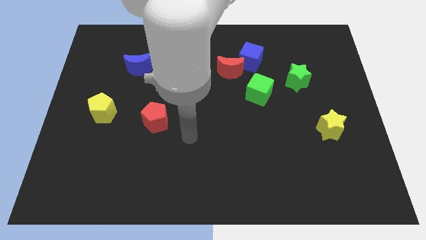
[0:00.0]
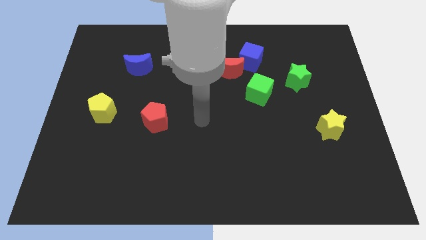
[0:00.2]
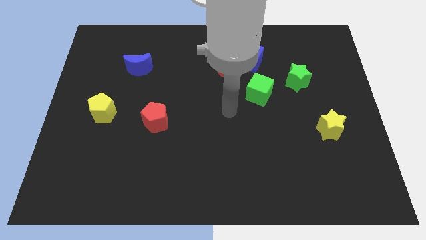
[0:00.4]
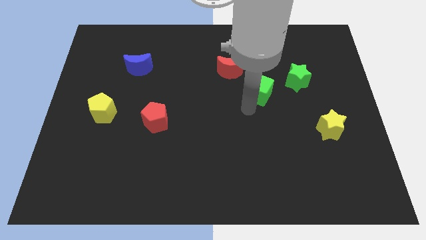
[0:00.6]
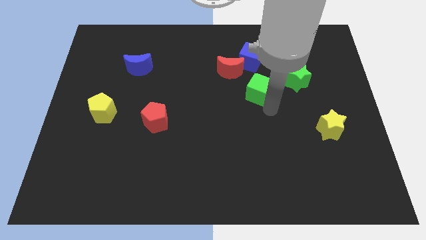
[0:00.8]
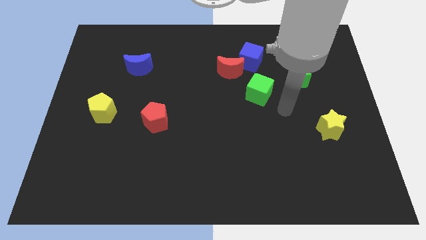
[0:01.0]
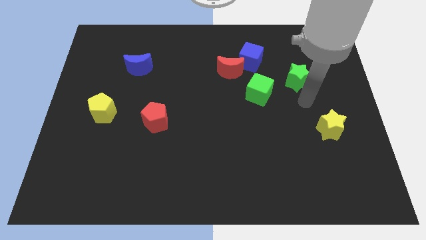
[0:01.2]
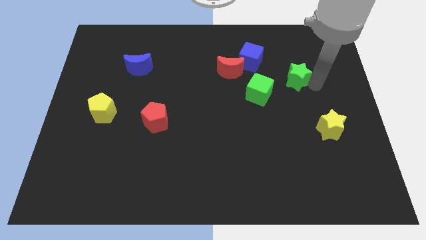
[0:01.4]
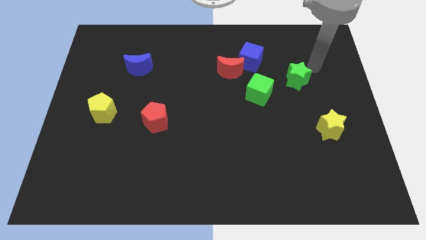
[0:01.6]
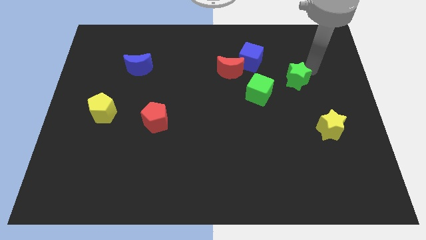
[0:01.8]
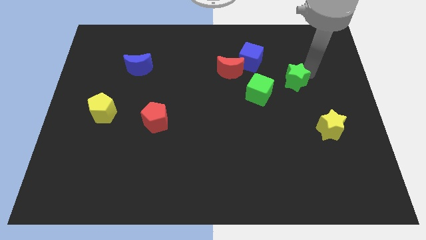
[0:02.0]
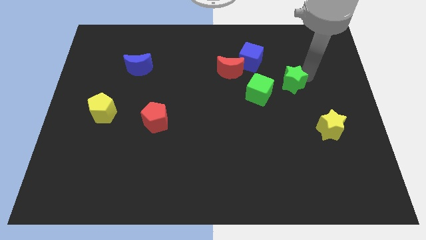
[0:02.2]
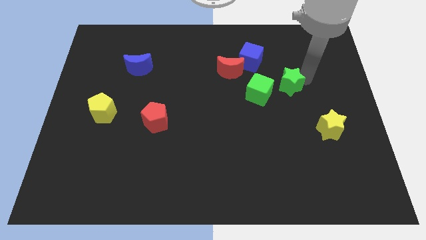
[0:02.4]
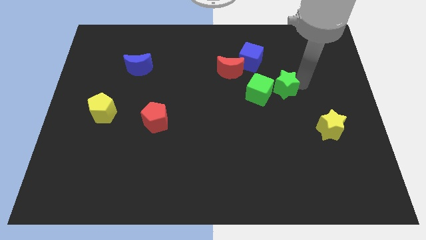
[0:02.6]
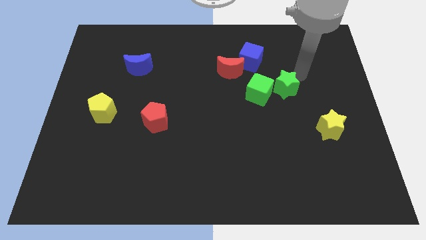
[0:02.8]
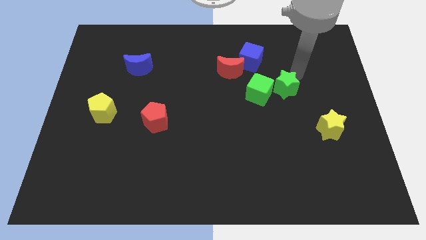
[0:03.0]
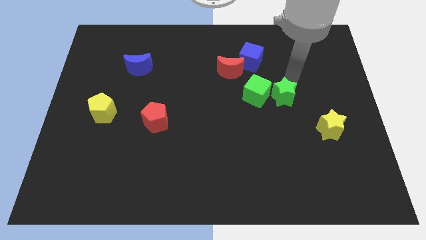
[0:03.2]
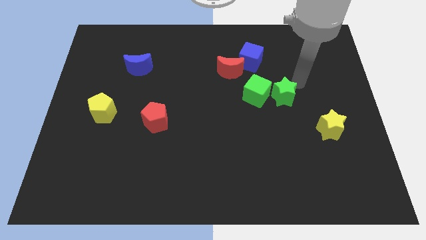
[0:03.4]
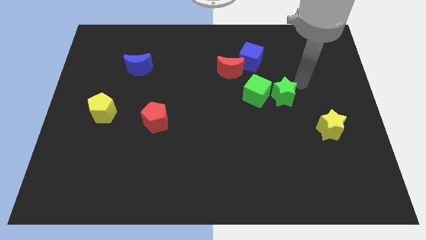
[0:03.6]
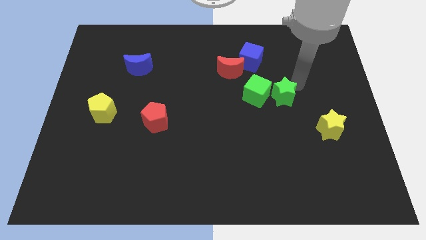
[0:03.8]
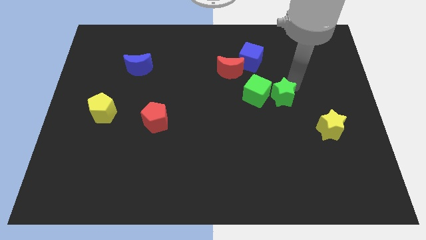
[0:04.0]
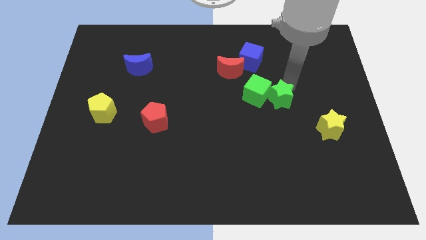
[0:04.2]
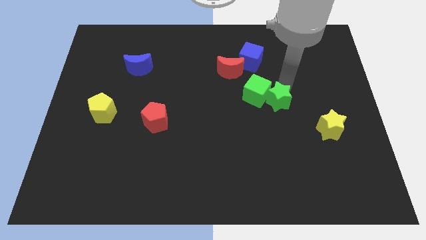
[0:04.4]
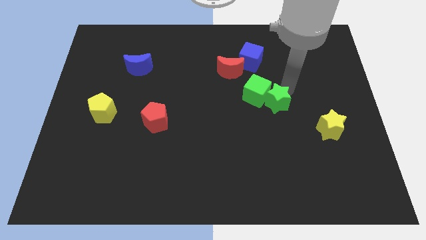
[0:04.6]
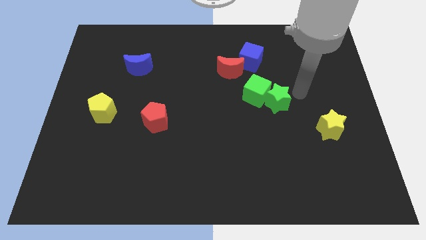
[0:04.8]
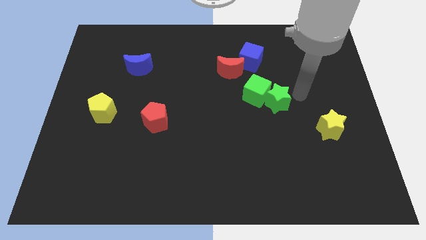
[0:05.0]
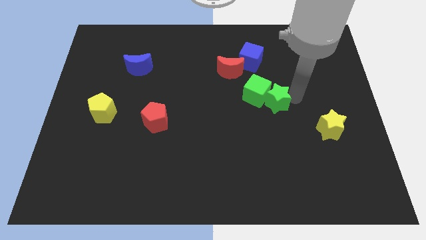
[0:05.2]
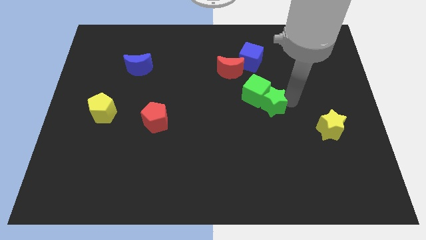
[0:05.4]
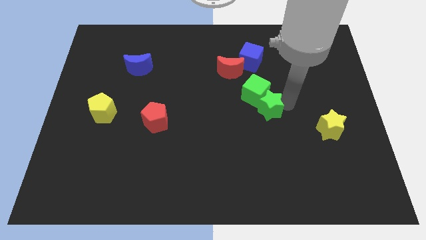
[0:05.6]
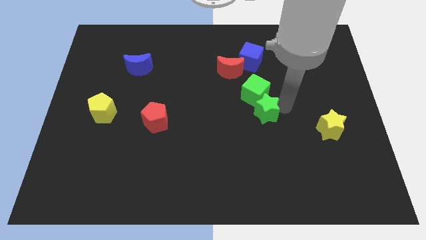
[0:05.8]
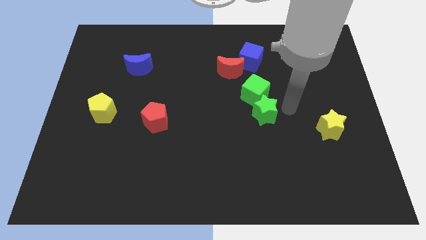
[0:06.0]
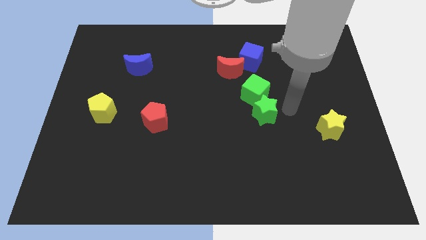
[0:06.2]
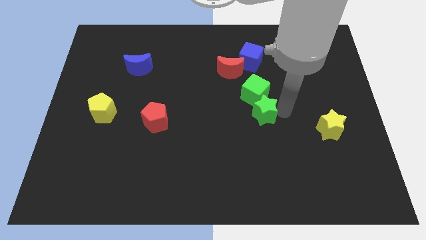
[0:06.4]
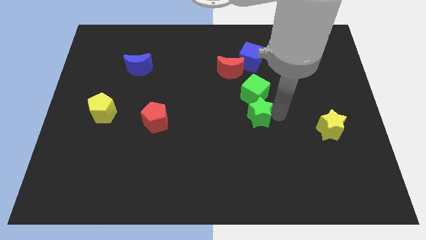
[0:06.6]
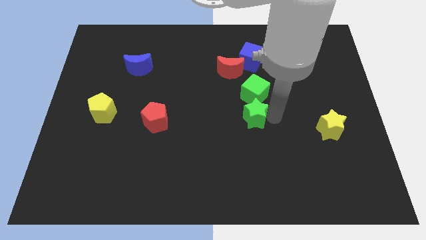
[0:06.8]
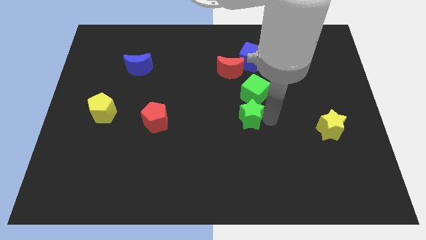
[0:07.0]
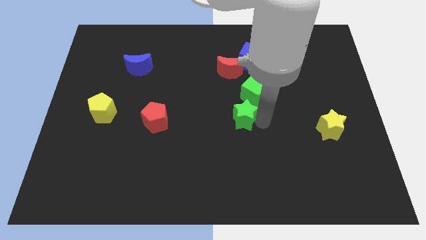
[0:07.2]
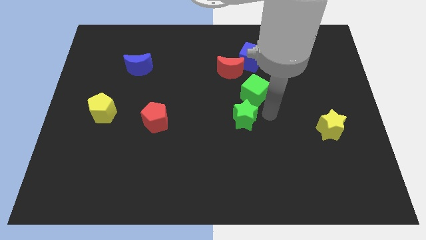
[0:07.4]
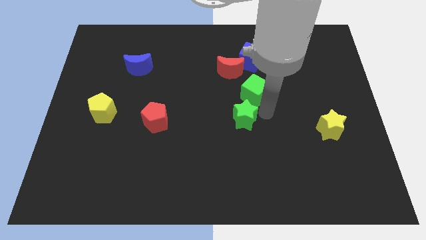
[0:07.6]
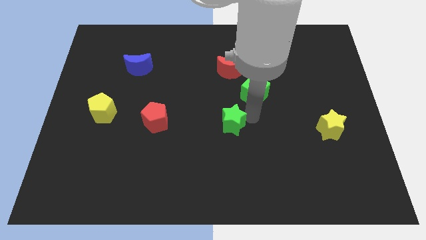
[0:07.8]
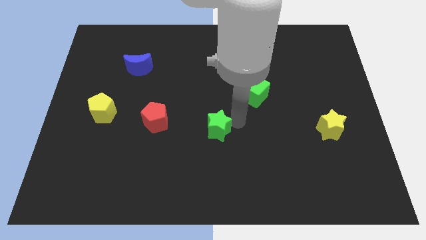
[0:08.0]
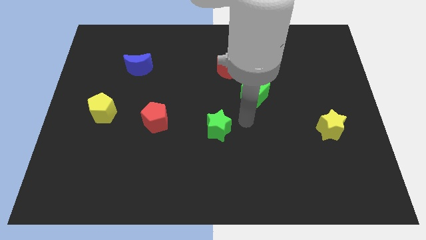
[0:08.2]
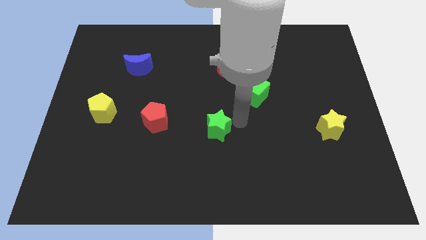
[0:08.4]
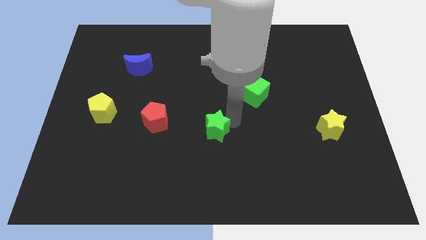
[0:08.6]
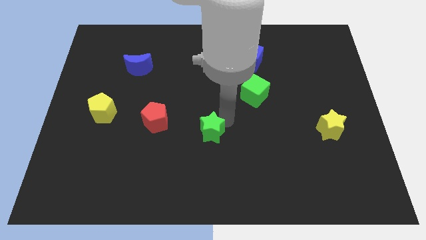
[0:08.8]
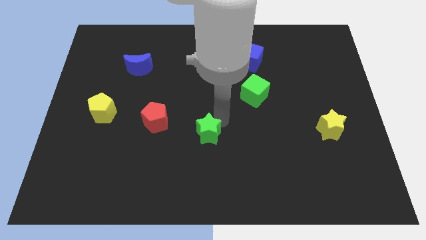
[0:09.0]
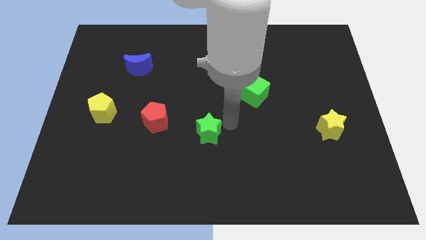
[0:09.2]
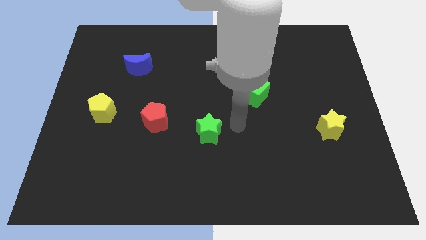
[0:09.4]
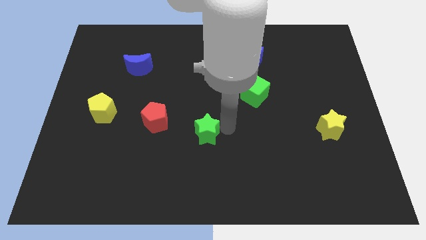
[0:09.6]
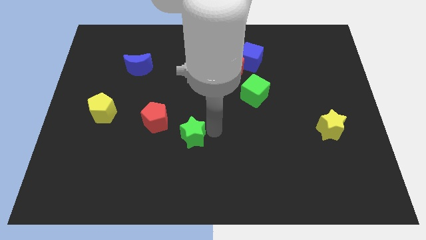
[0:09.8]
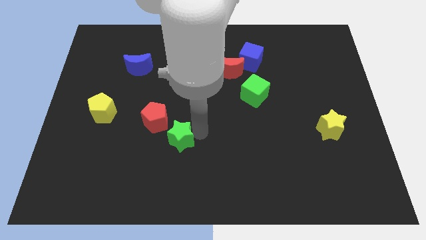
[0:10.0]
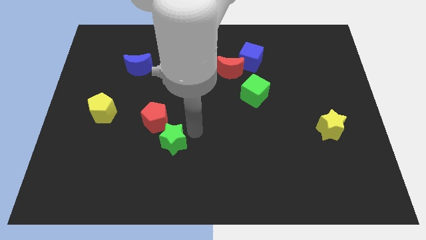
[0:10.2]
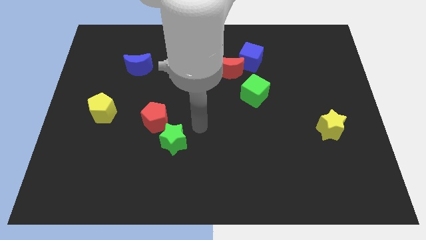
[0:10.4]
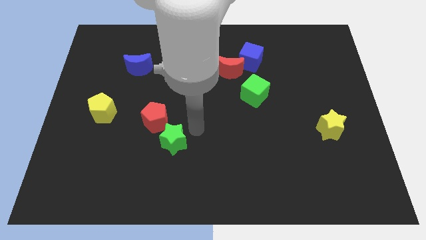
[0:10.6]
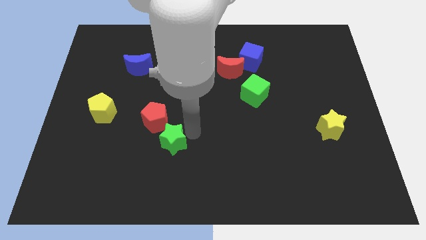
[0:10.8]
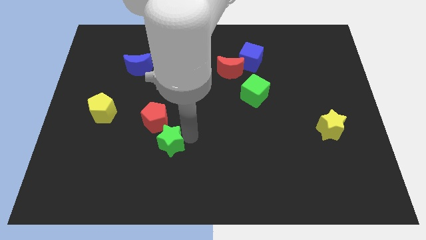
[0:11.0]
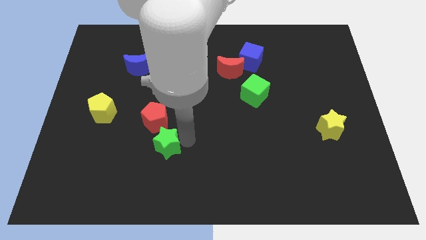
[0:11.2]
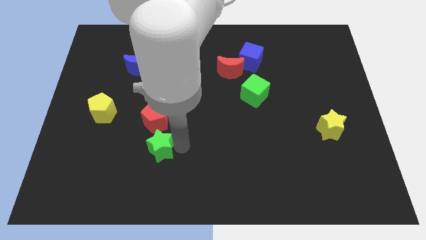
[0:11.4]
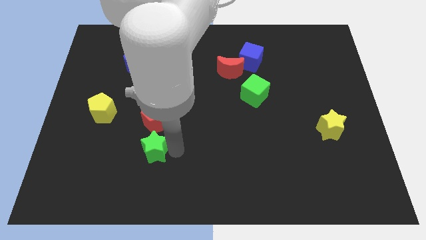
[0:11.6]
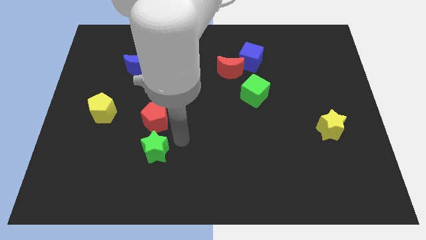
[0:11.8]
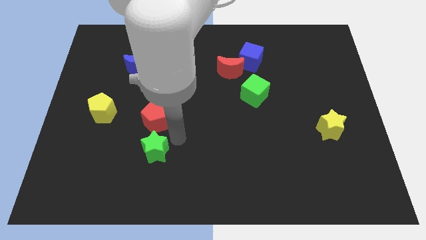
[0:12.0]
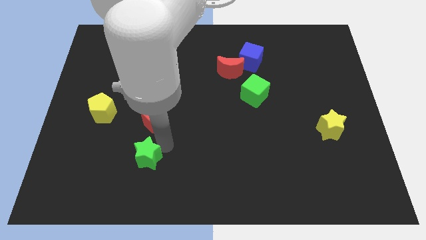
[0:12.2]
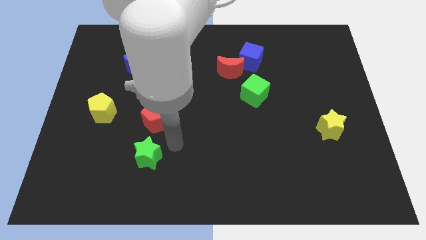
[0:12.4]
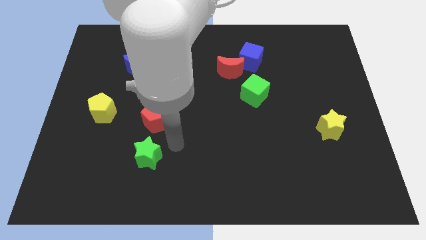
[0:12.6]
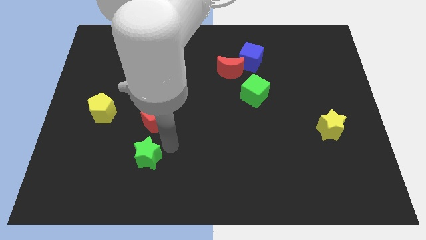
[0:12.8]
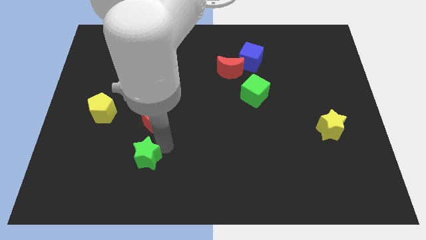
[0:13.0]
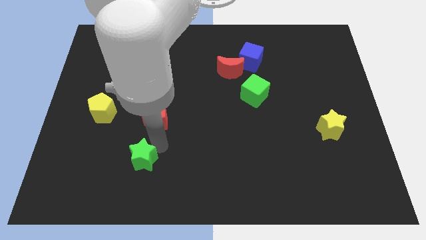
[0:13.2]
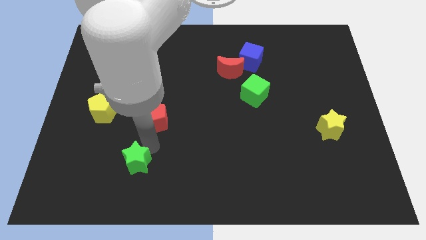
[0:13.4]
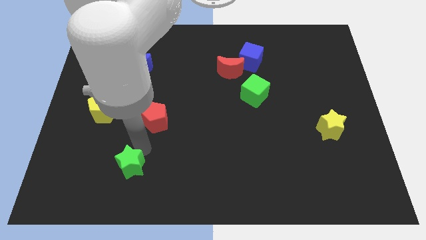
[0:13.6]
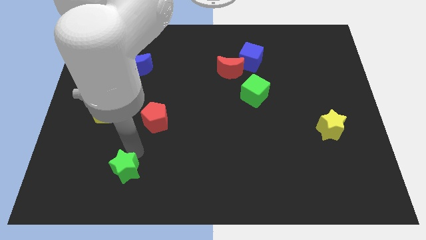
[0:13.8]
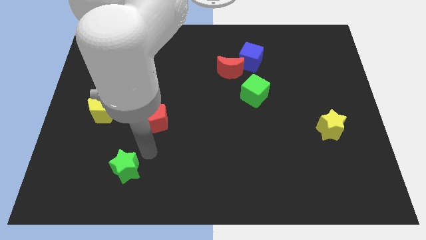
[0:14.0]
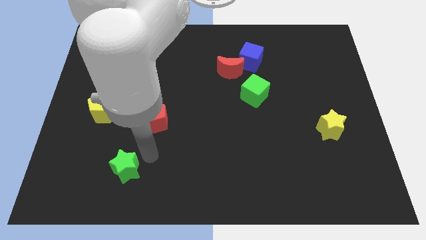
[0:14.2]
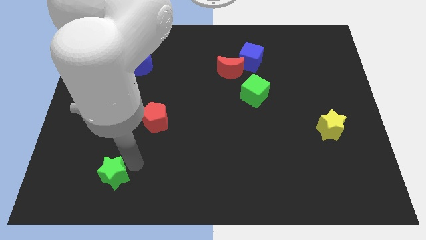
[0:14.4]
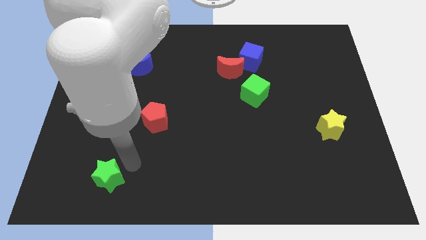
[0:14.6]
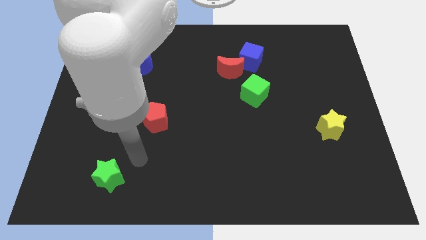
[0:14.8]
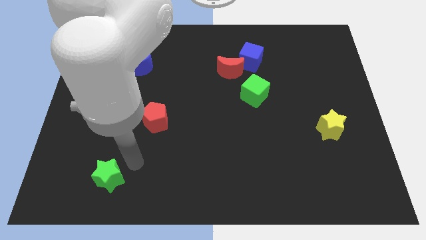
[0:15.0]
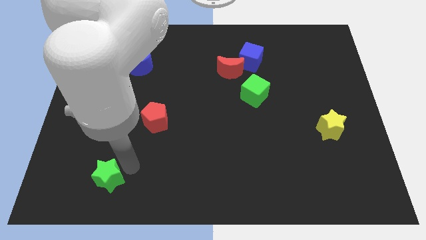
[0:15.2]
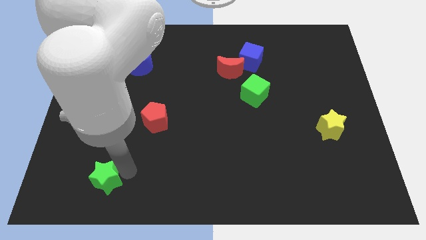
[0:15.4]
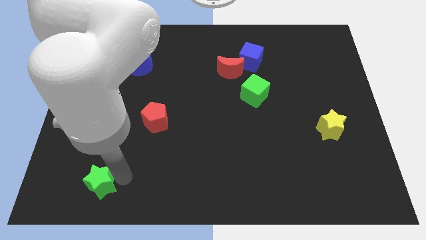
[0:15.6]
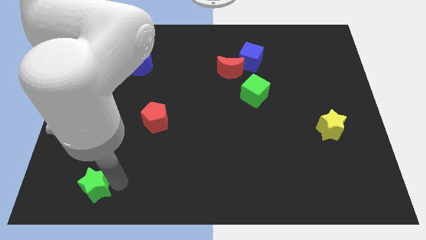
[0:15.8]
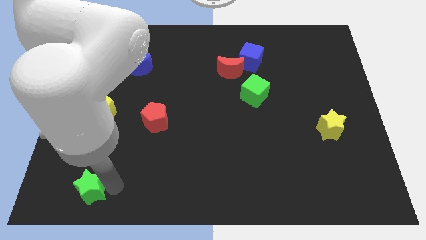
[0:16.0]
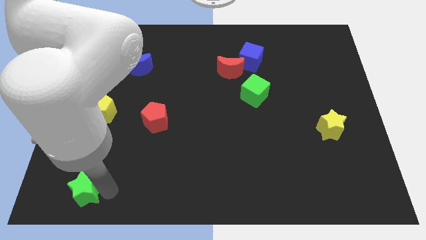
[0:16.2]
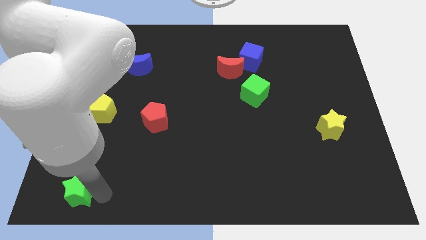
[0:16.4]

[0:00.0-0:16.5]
slide the green star to the bottom left corner
